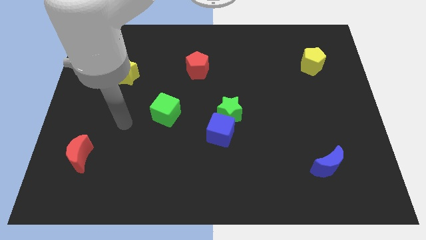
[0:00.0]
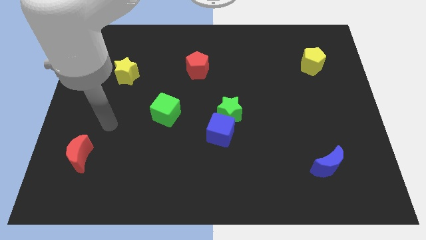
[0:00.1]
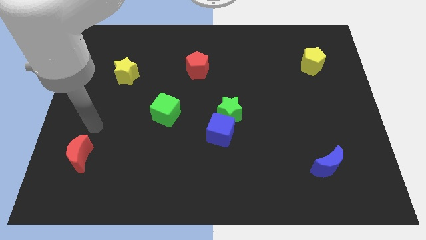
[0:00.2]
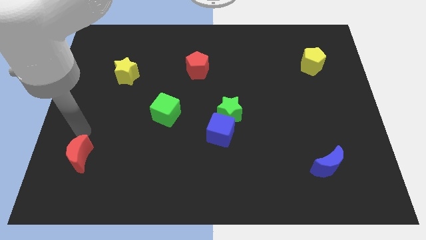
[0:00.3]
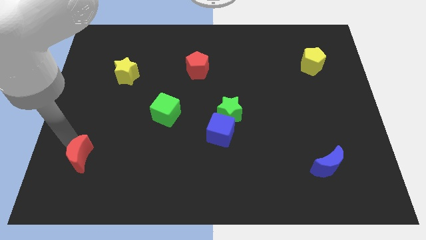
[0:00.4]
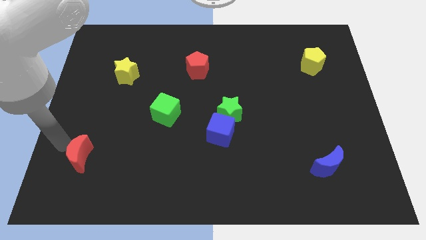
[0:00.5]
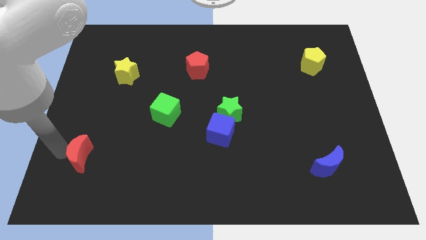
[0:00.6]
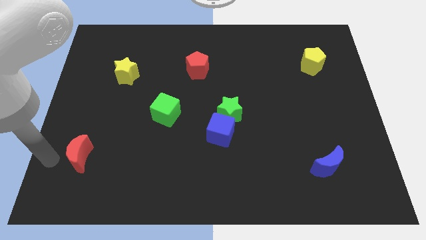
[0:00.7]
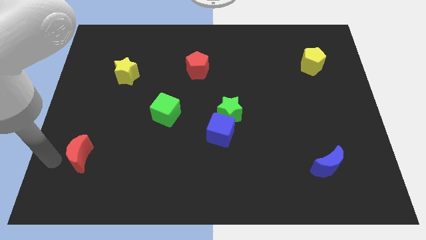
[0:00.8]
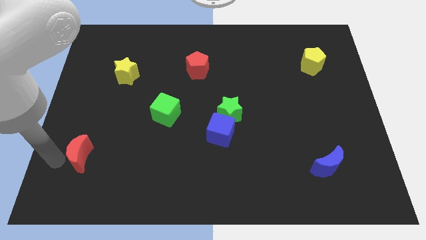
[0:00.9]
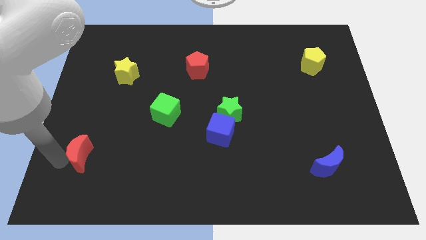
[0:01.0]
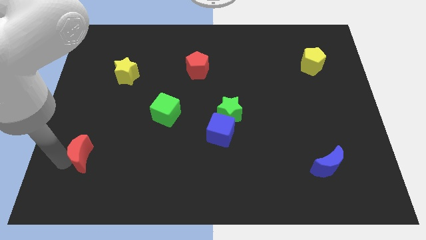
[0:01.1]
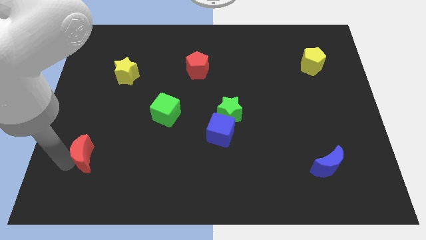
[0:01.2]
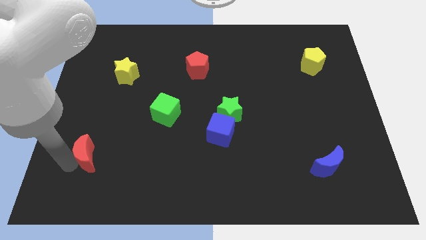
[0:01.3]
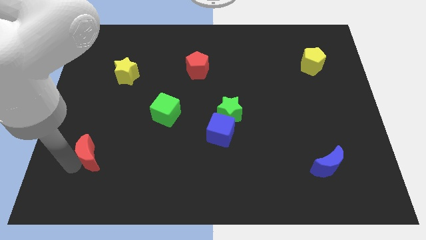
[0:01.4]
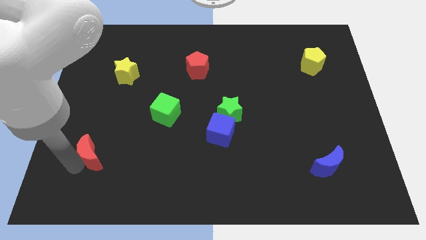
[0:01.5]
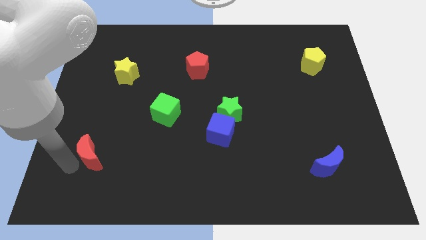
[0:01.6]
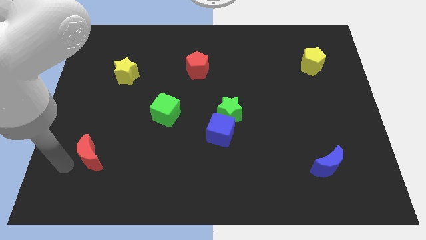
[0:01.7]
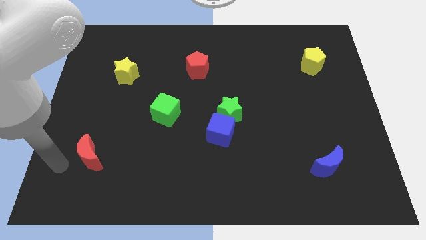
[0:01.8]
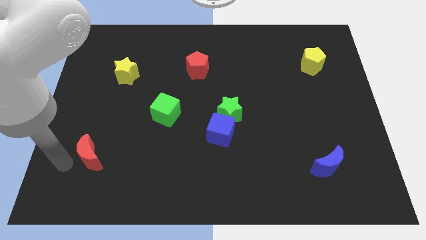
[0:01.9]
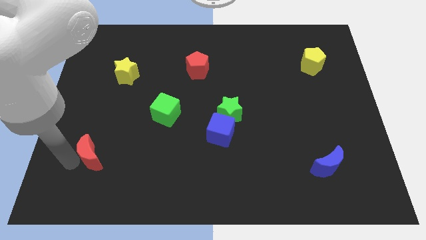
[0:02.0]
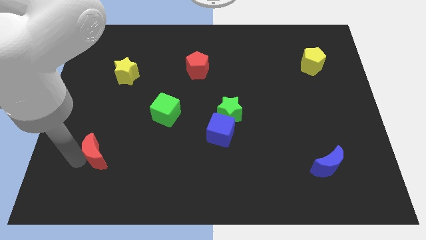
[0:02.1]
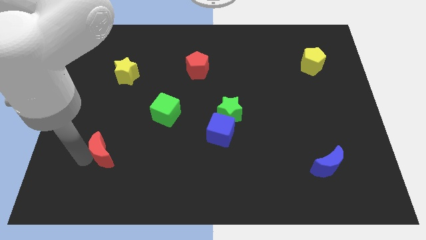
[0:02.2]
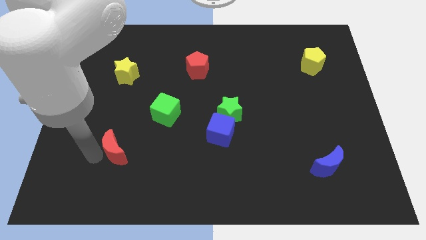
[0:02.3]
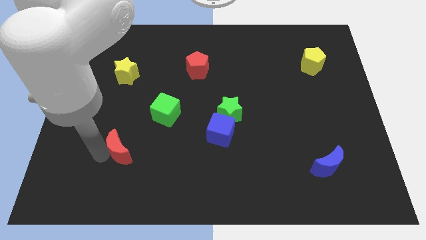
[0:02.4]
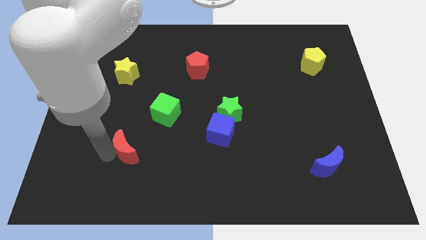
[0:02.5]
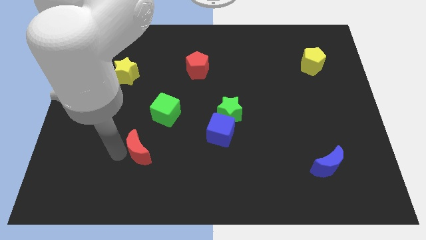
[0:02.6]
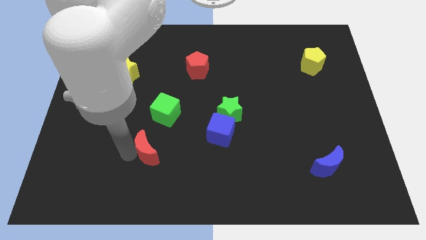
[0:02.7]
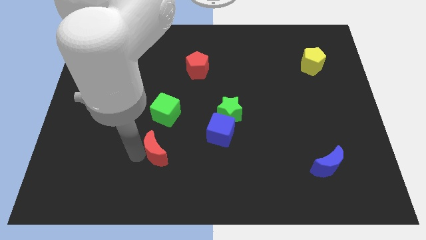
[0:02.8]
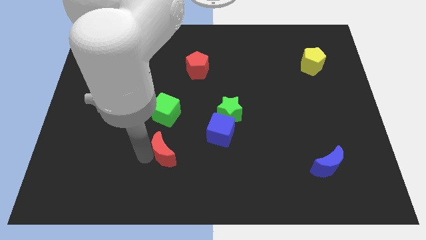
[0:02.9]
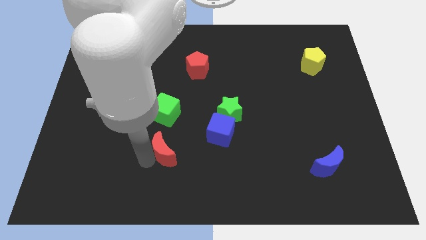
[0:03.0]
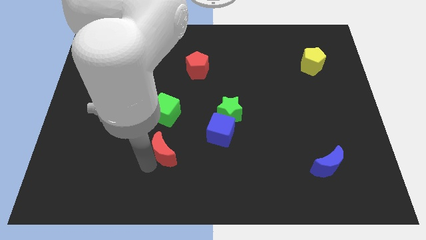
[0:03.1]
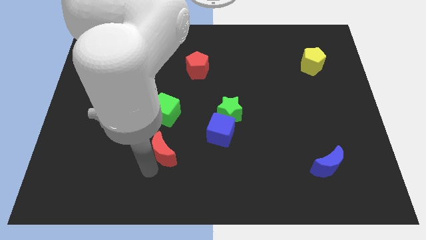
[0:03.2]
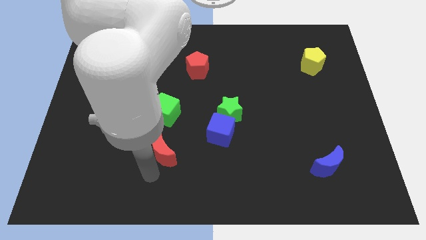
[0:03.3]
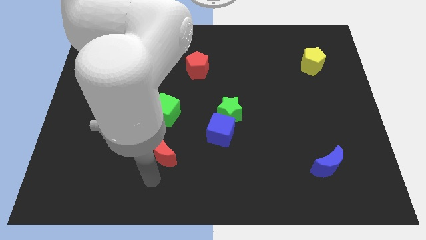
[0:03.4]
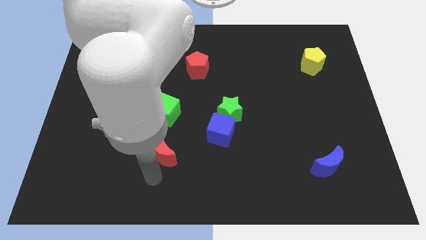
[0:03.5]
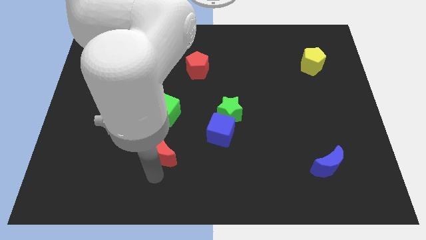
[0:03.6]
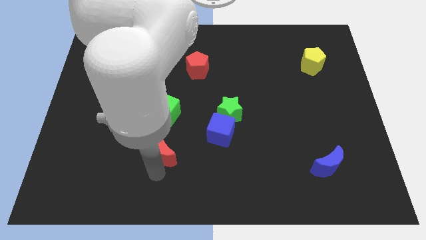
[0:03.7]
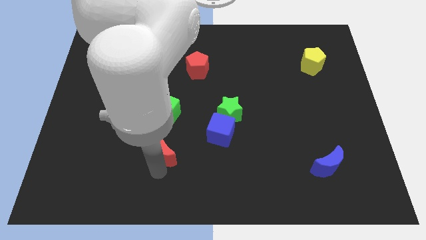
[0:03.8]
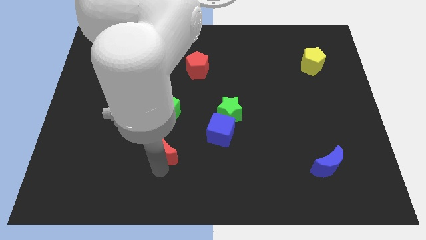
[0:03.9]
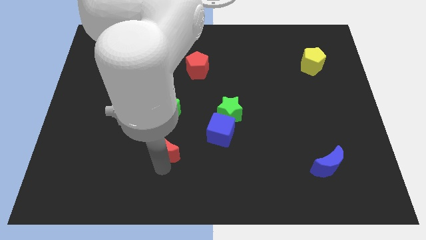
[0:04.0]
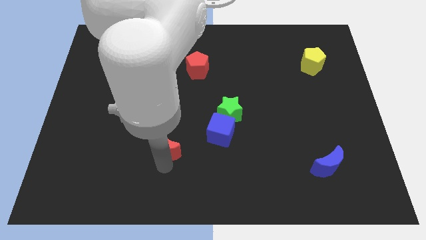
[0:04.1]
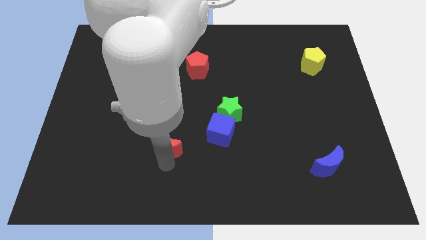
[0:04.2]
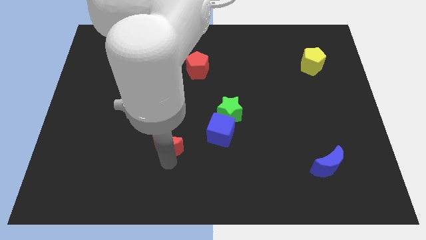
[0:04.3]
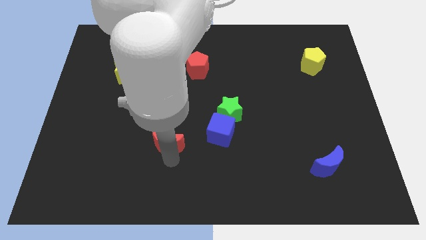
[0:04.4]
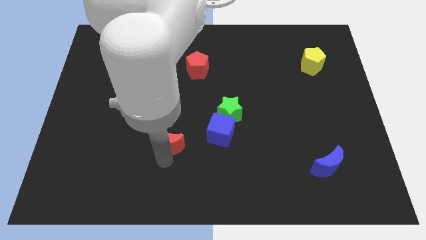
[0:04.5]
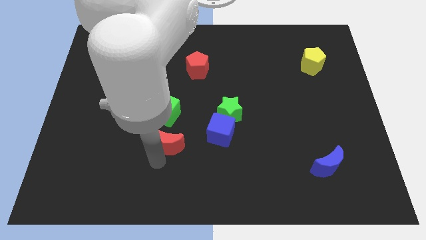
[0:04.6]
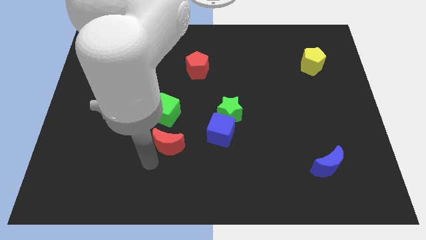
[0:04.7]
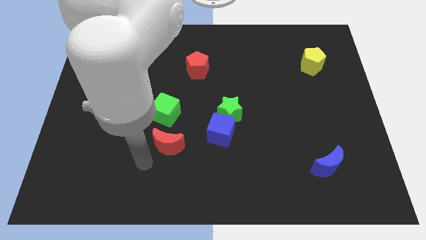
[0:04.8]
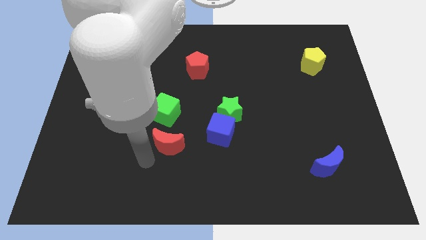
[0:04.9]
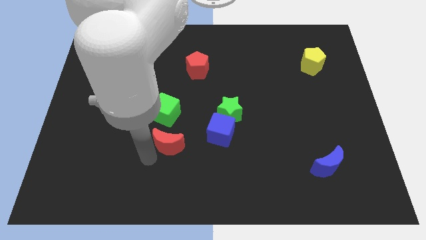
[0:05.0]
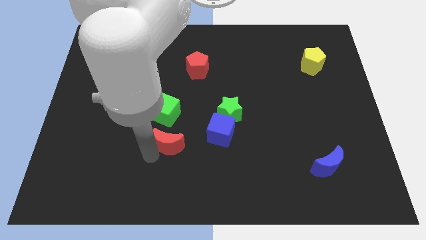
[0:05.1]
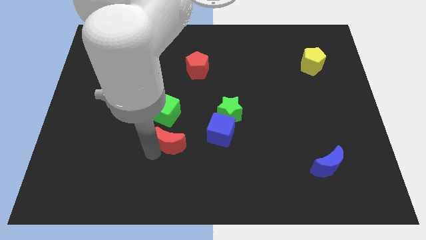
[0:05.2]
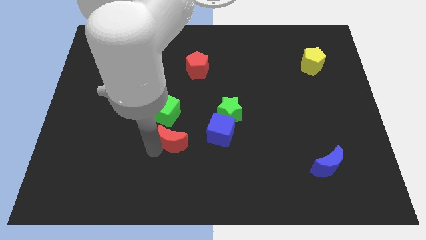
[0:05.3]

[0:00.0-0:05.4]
push the red moon to the bottom right side of the green cube

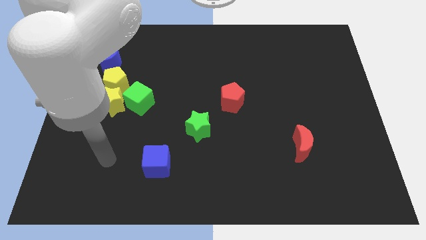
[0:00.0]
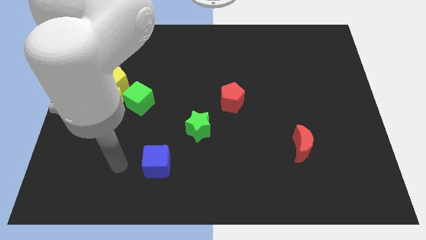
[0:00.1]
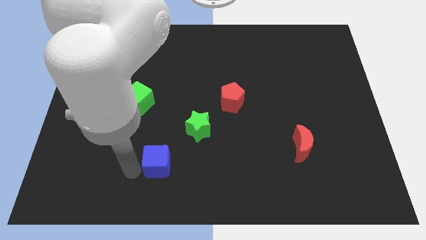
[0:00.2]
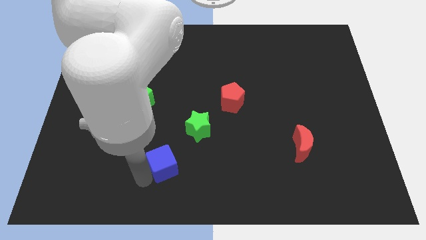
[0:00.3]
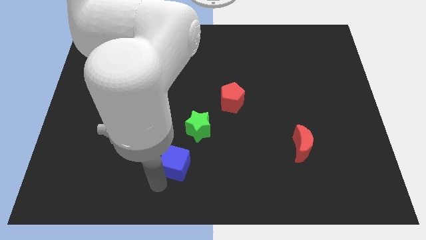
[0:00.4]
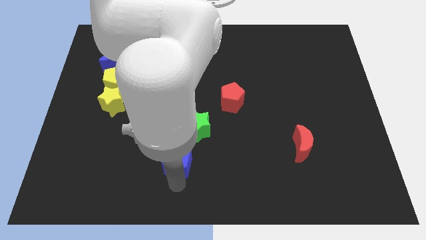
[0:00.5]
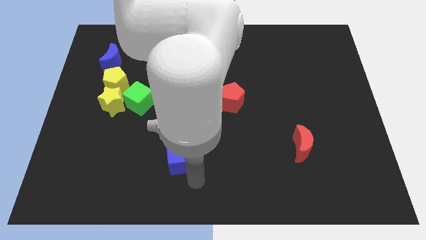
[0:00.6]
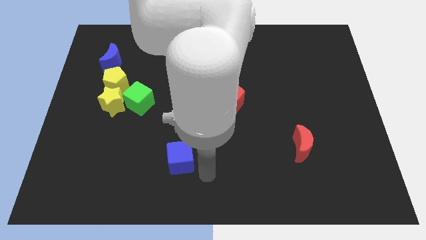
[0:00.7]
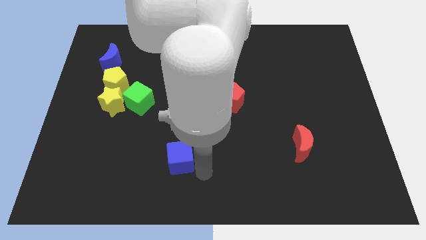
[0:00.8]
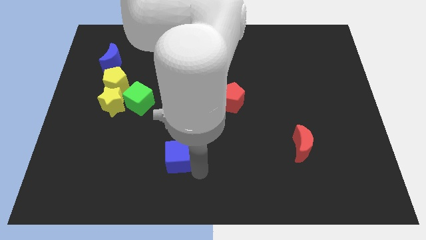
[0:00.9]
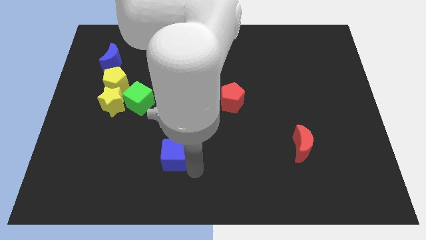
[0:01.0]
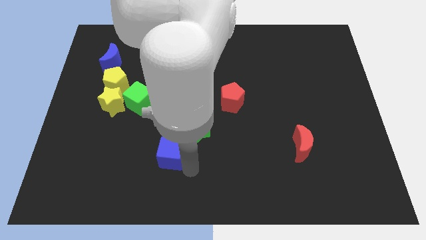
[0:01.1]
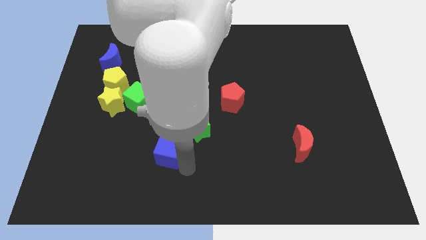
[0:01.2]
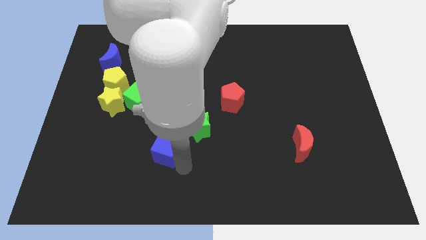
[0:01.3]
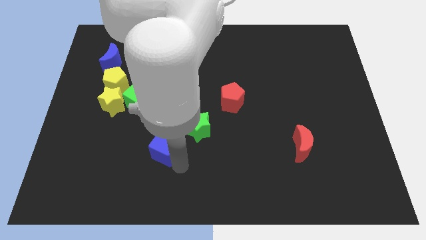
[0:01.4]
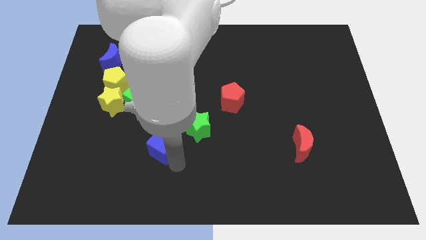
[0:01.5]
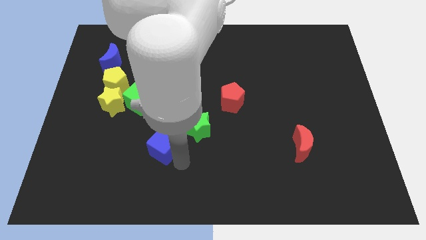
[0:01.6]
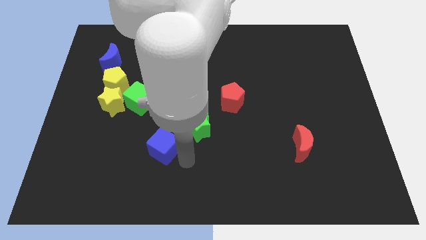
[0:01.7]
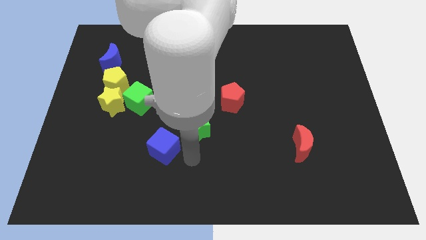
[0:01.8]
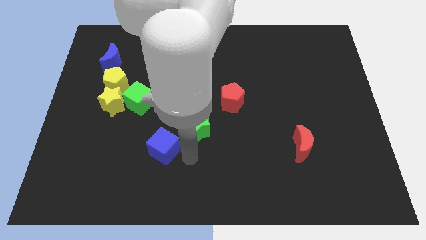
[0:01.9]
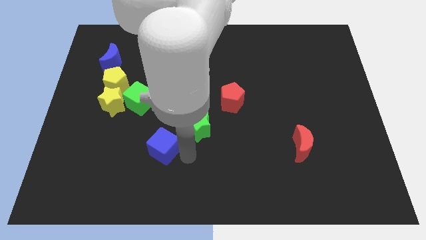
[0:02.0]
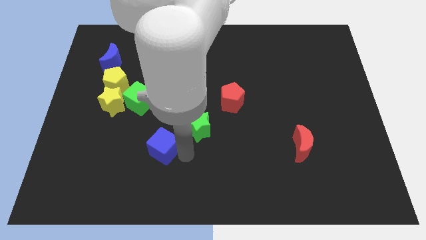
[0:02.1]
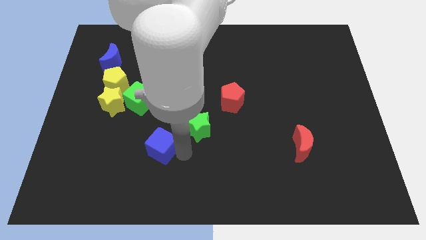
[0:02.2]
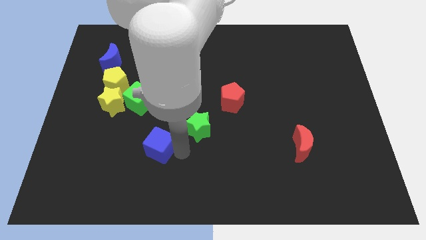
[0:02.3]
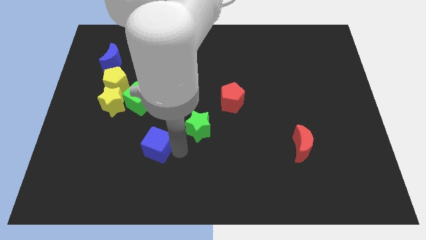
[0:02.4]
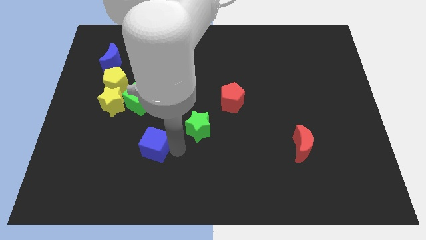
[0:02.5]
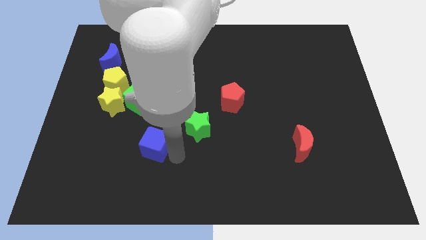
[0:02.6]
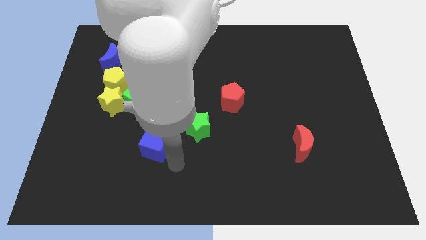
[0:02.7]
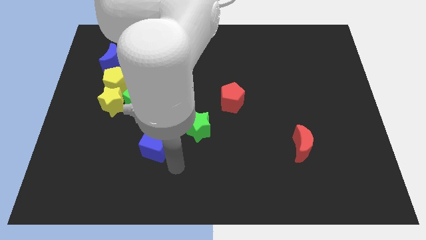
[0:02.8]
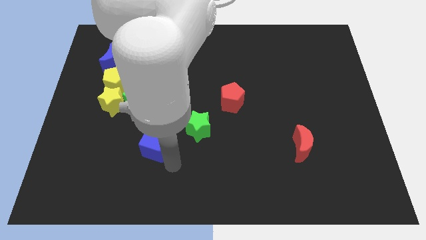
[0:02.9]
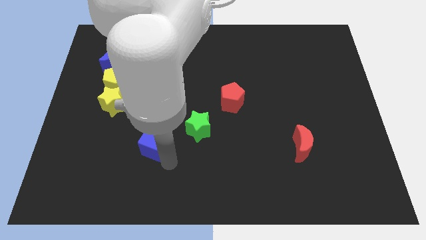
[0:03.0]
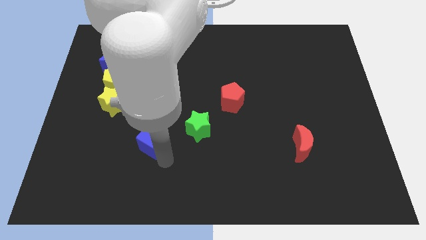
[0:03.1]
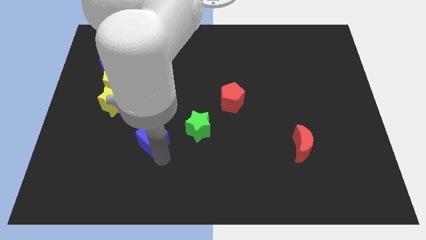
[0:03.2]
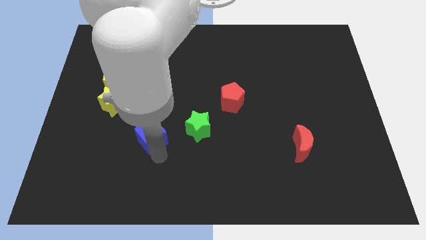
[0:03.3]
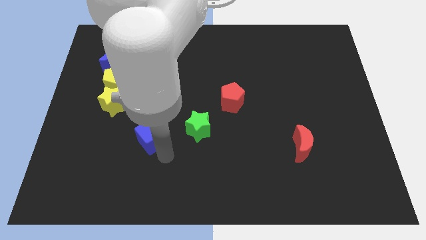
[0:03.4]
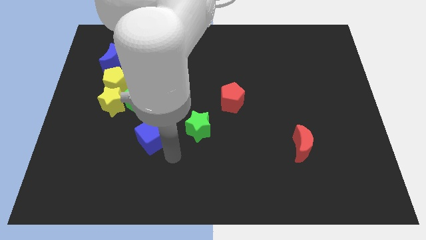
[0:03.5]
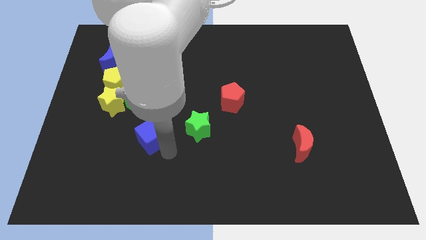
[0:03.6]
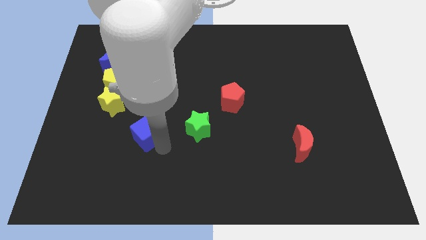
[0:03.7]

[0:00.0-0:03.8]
slide the blue cube to the bottom right side of the yellow star
